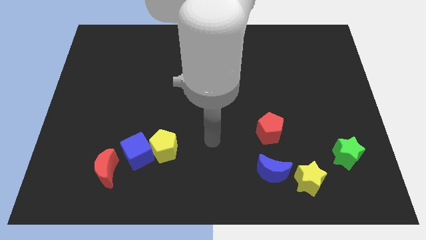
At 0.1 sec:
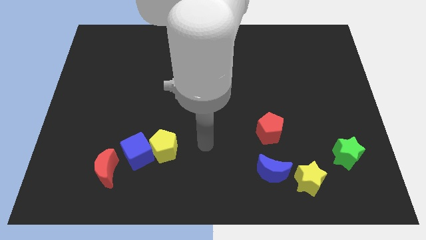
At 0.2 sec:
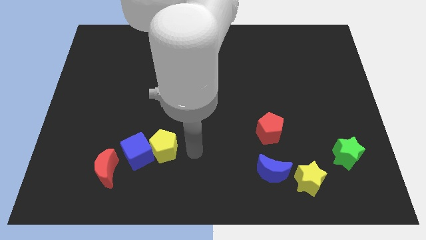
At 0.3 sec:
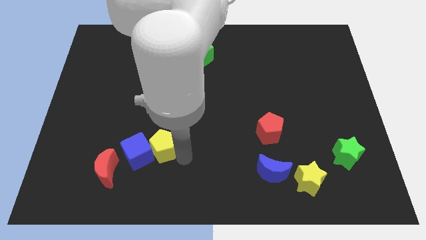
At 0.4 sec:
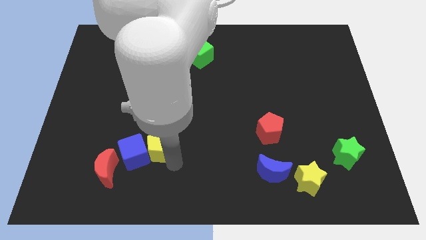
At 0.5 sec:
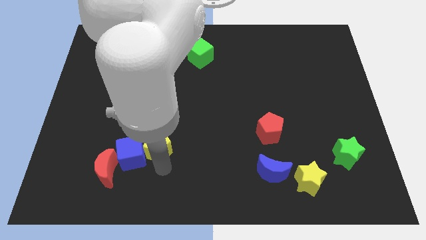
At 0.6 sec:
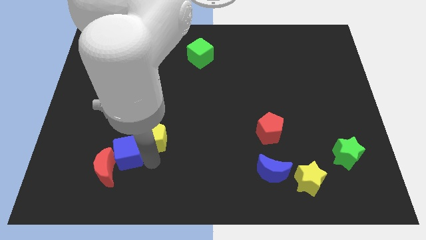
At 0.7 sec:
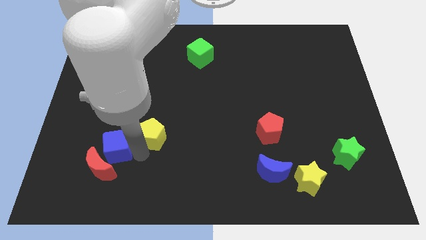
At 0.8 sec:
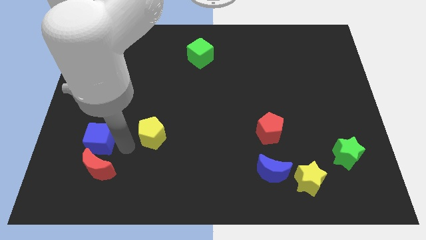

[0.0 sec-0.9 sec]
separate the yellow pentagon from the blue cube

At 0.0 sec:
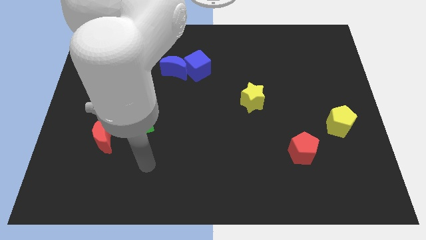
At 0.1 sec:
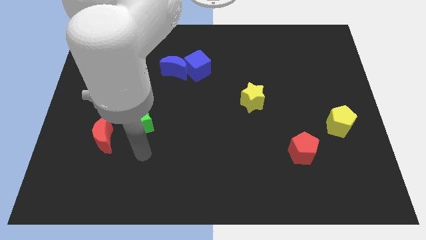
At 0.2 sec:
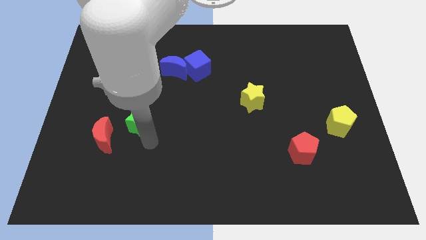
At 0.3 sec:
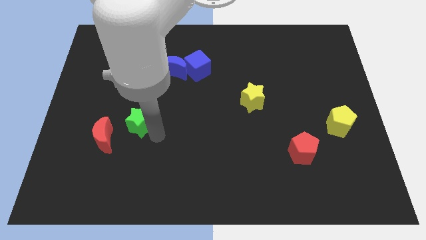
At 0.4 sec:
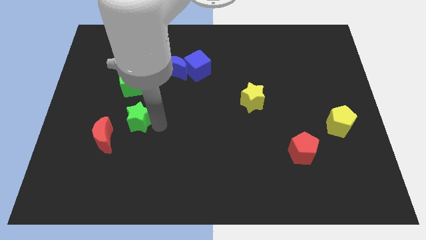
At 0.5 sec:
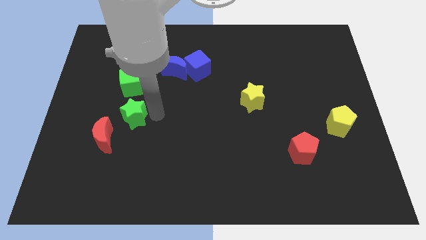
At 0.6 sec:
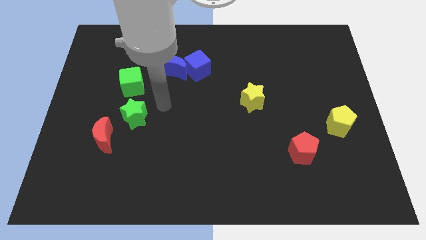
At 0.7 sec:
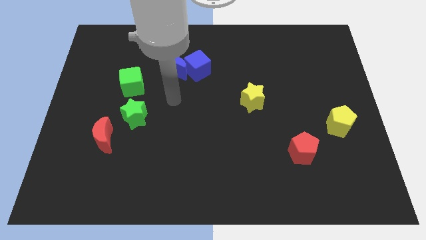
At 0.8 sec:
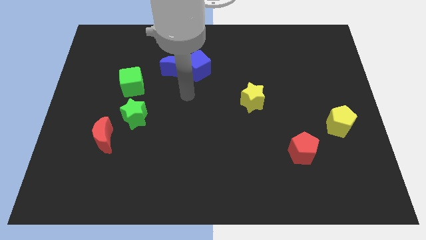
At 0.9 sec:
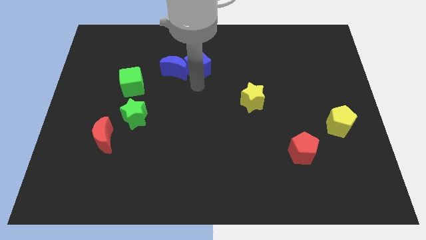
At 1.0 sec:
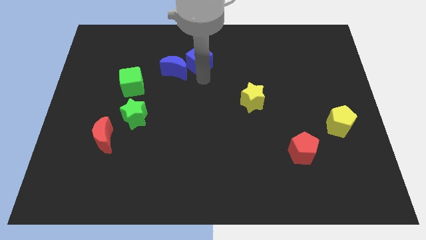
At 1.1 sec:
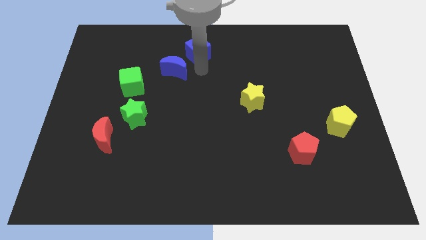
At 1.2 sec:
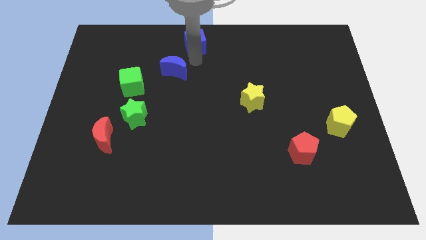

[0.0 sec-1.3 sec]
move the blue moon away from the blue cube

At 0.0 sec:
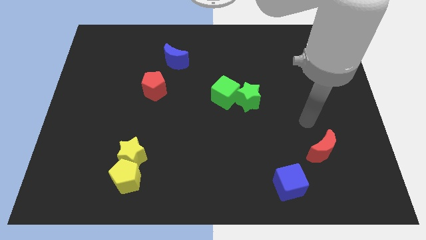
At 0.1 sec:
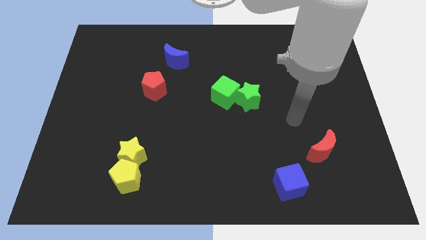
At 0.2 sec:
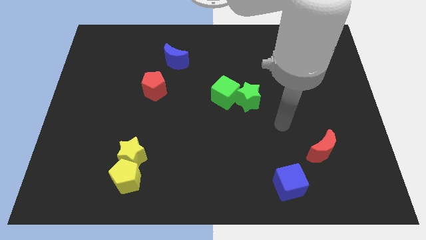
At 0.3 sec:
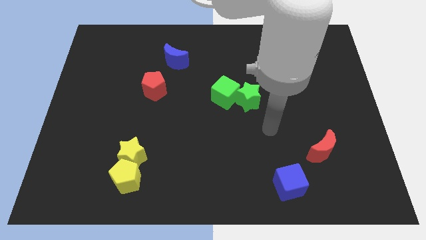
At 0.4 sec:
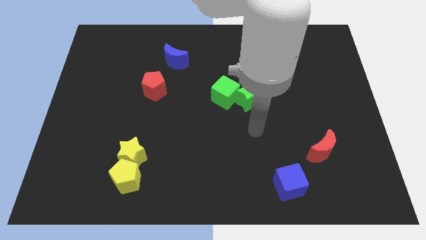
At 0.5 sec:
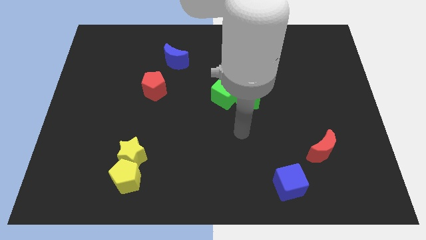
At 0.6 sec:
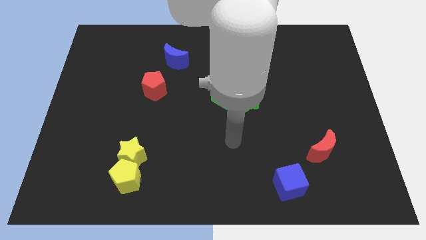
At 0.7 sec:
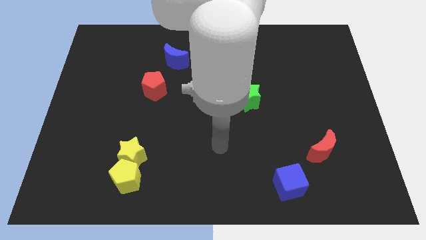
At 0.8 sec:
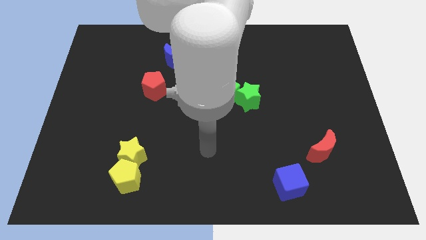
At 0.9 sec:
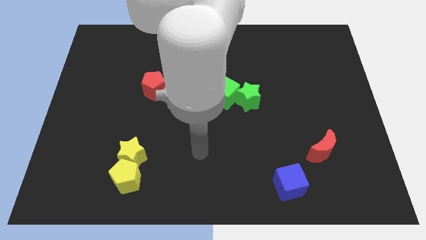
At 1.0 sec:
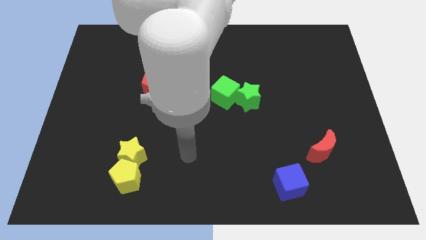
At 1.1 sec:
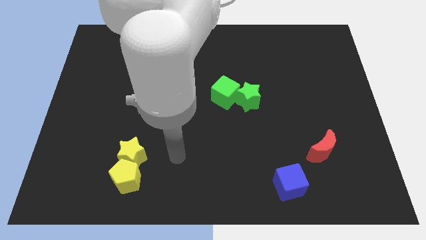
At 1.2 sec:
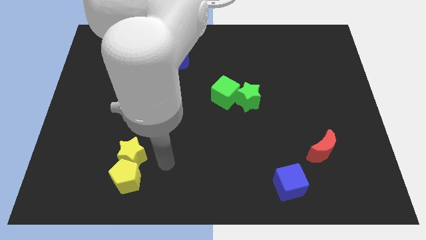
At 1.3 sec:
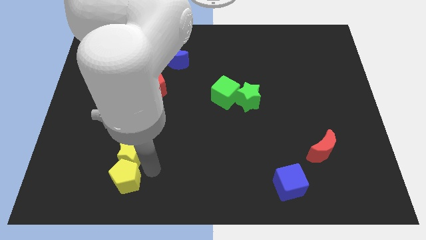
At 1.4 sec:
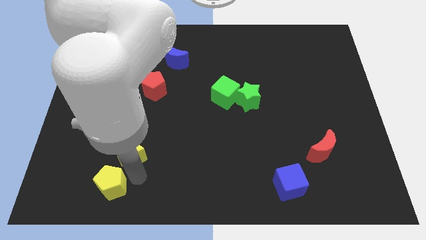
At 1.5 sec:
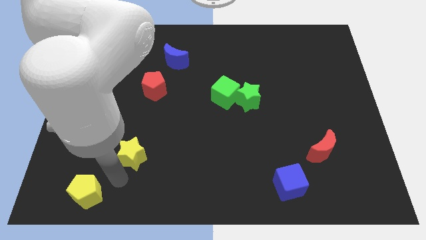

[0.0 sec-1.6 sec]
separate the yellow star from the yellow pentagon

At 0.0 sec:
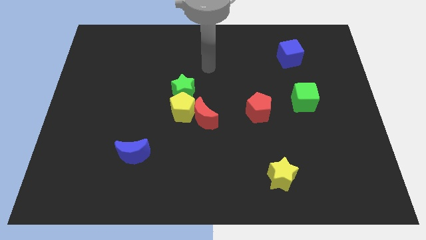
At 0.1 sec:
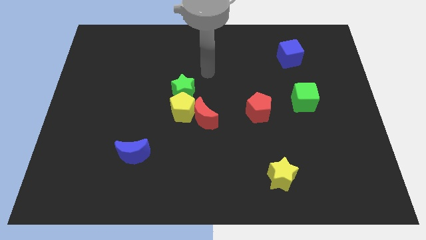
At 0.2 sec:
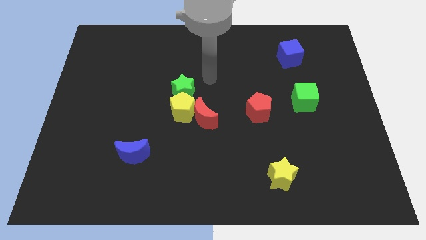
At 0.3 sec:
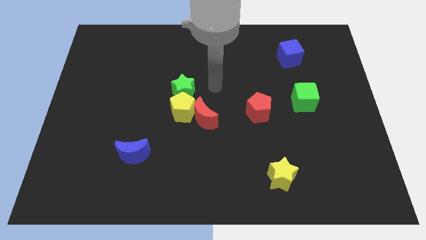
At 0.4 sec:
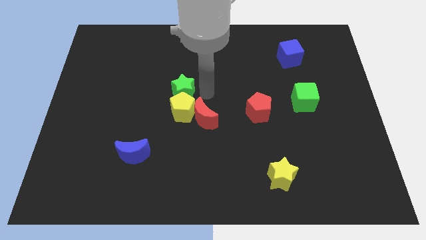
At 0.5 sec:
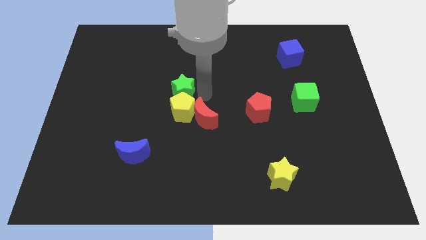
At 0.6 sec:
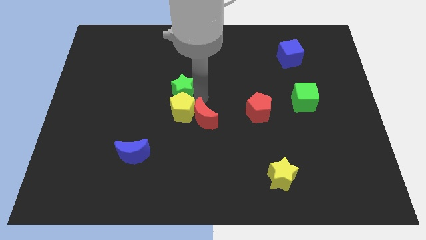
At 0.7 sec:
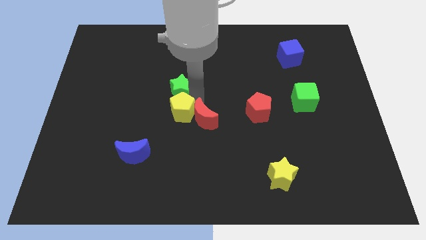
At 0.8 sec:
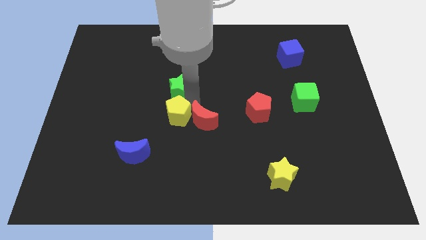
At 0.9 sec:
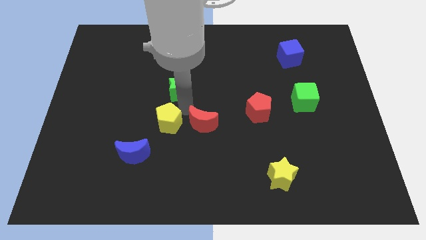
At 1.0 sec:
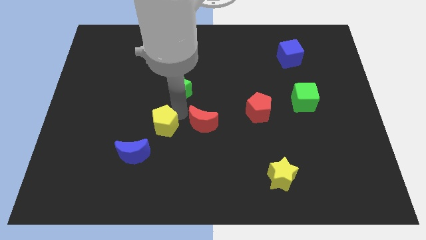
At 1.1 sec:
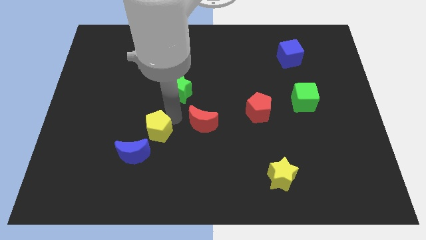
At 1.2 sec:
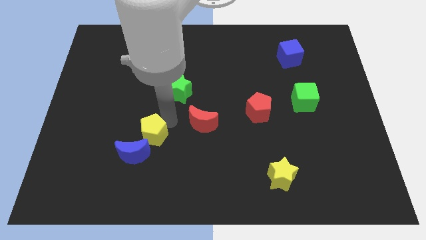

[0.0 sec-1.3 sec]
pull the yellow pentagon apart from the red moon and green star

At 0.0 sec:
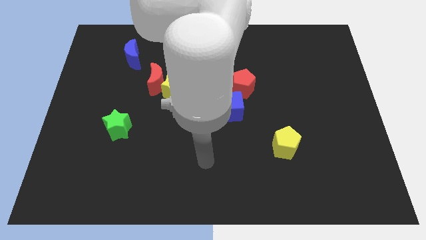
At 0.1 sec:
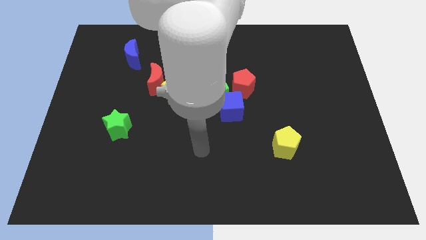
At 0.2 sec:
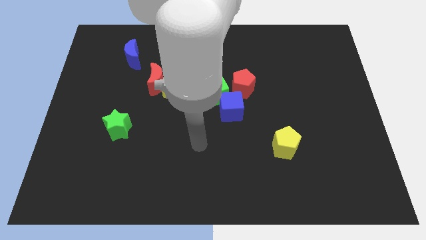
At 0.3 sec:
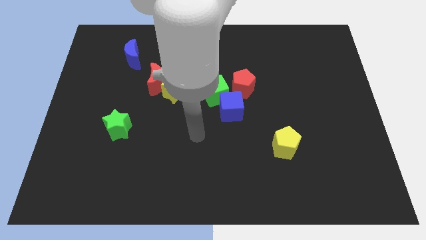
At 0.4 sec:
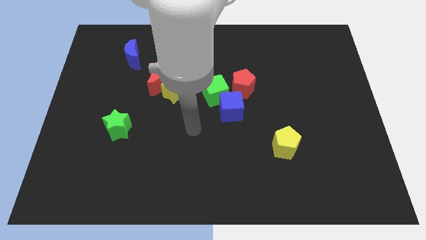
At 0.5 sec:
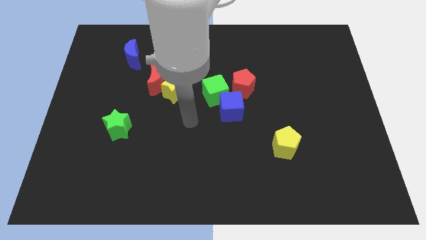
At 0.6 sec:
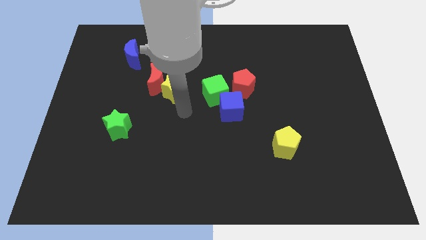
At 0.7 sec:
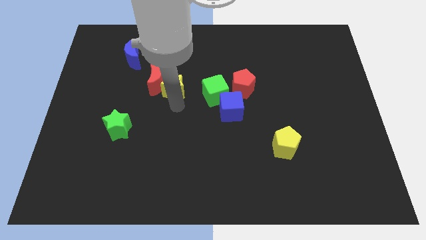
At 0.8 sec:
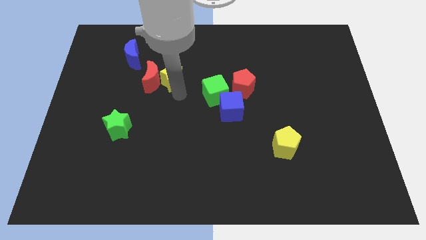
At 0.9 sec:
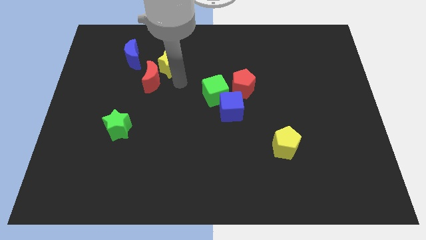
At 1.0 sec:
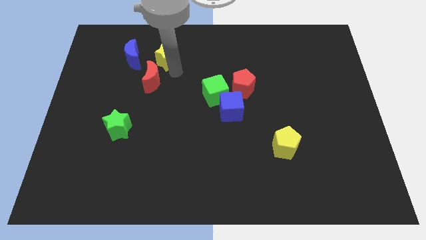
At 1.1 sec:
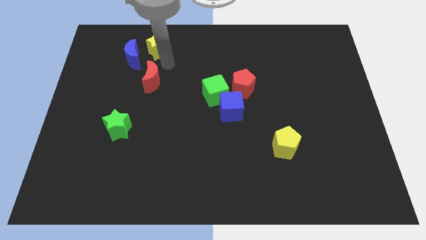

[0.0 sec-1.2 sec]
pull the red moon apart from the yellow star

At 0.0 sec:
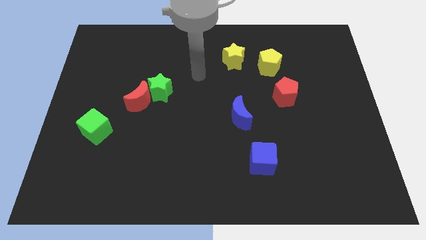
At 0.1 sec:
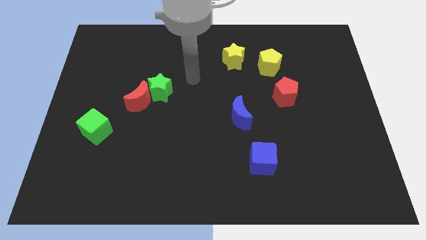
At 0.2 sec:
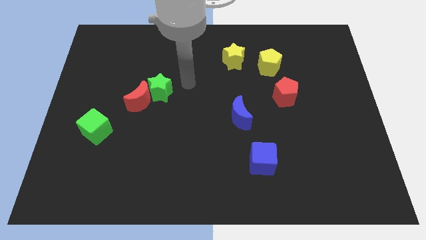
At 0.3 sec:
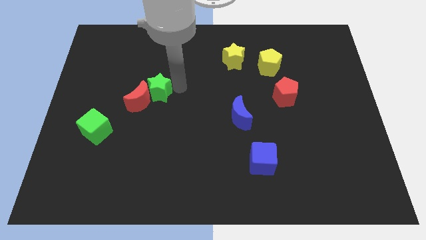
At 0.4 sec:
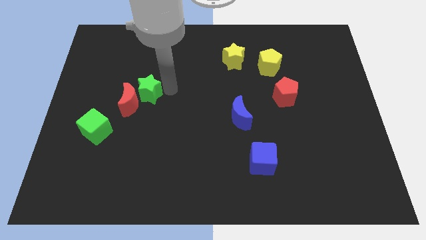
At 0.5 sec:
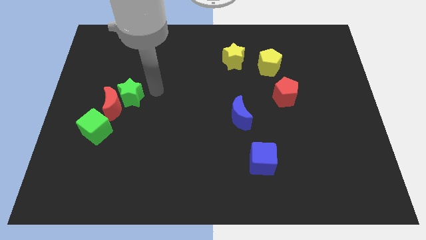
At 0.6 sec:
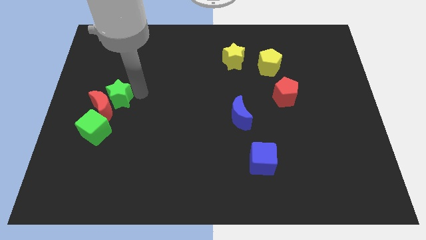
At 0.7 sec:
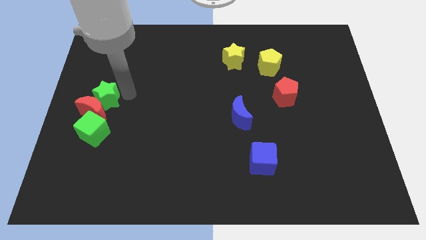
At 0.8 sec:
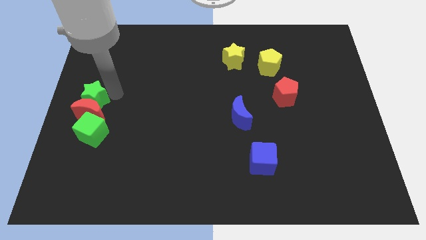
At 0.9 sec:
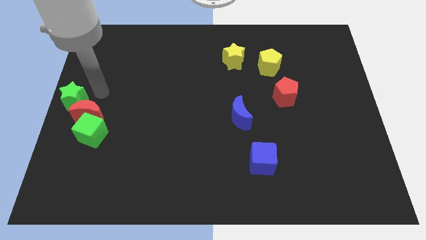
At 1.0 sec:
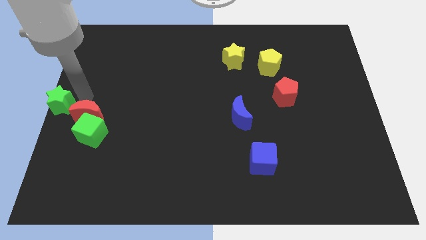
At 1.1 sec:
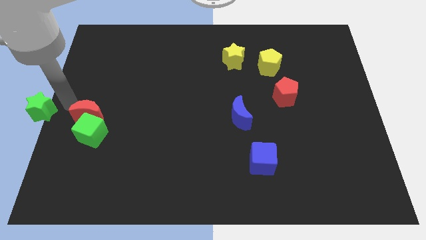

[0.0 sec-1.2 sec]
pull the red moon apart from the green star

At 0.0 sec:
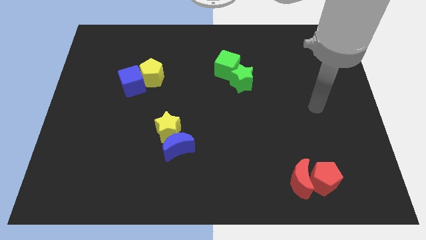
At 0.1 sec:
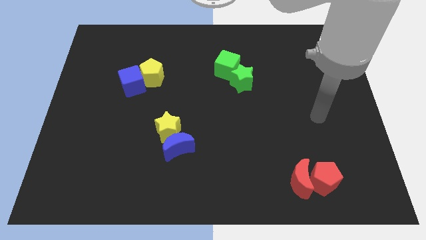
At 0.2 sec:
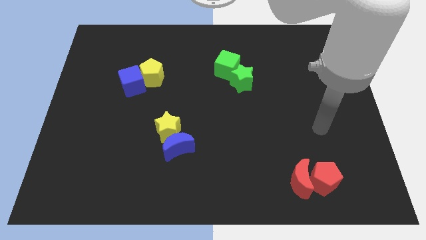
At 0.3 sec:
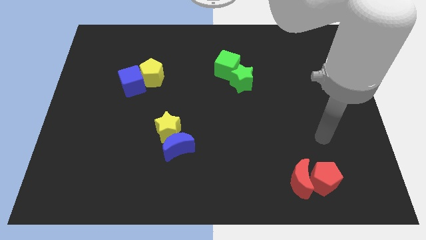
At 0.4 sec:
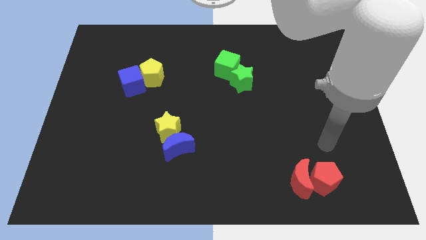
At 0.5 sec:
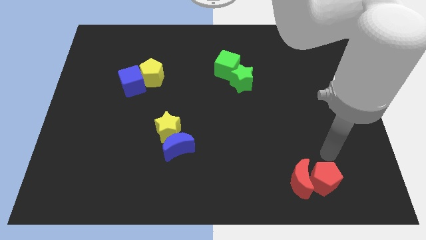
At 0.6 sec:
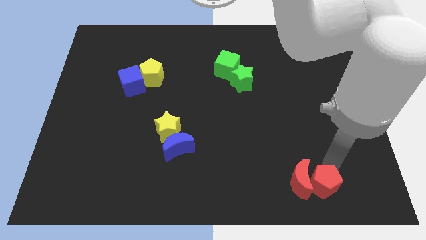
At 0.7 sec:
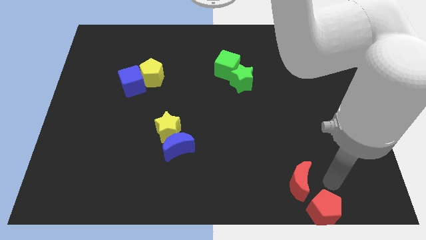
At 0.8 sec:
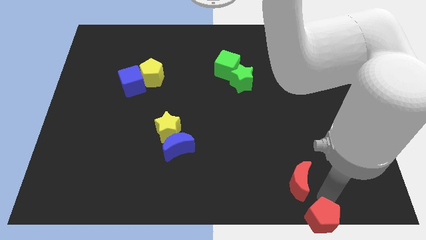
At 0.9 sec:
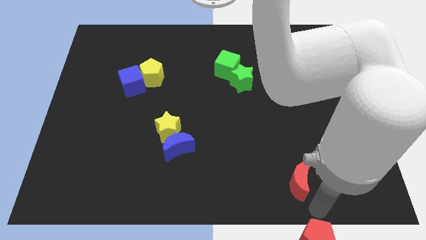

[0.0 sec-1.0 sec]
pull the red moon apart from the red pentagon

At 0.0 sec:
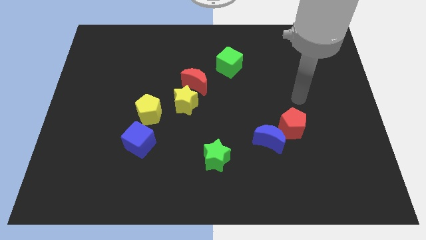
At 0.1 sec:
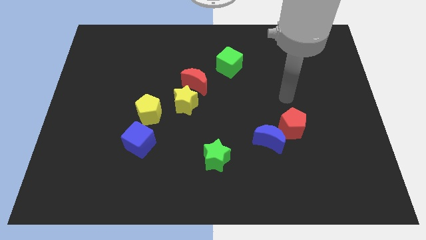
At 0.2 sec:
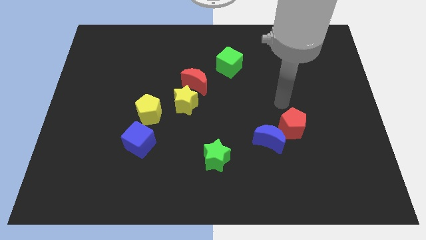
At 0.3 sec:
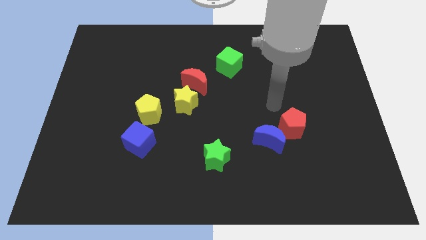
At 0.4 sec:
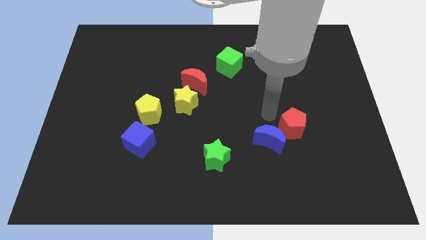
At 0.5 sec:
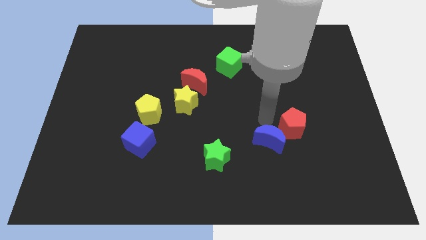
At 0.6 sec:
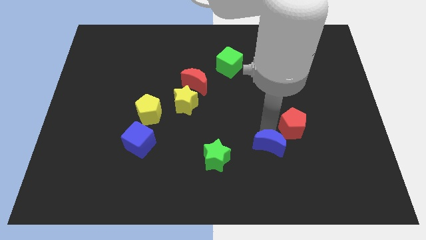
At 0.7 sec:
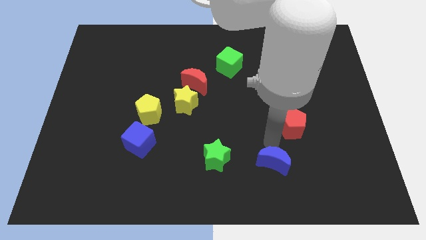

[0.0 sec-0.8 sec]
separate the red pentagon from the blue moon
